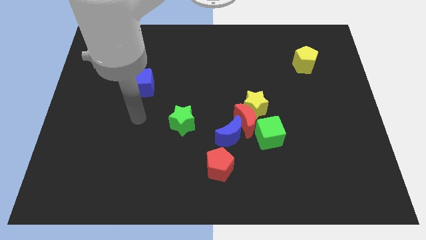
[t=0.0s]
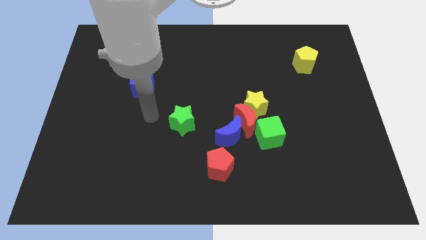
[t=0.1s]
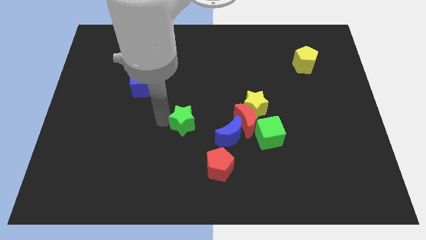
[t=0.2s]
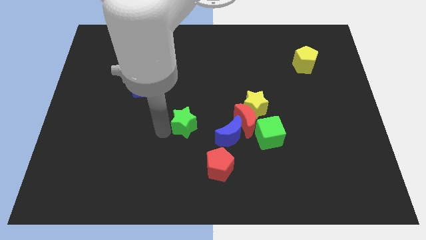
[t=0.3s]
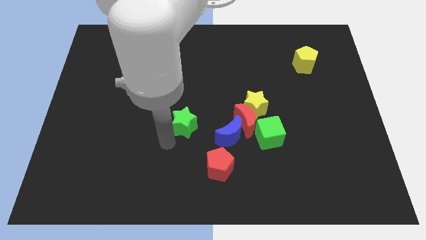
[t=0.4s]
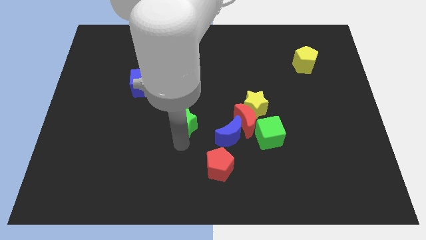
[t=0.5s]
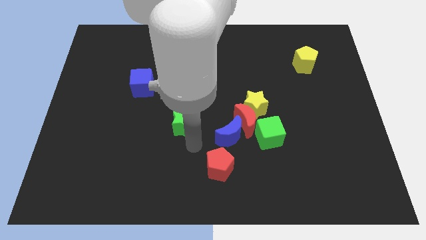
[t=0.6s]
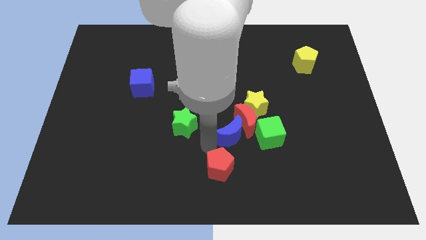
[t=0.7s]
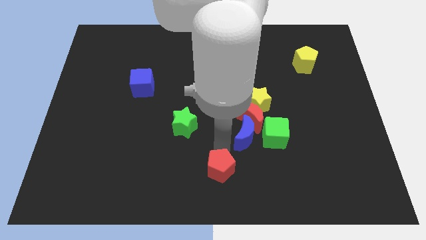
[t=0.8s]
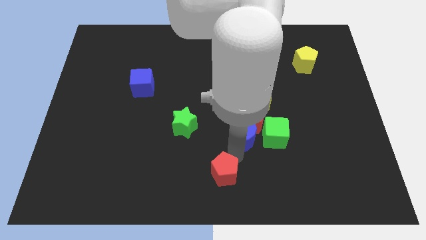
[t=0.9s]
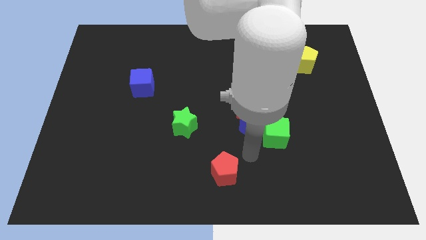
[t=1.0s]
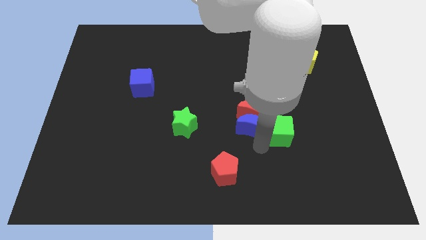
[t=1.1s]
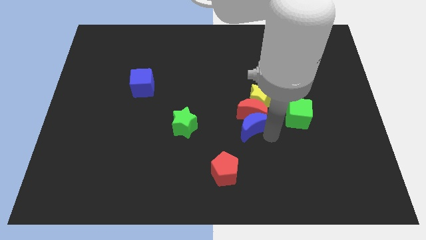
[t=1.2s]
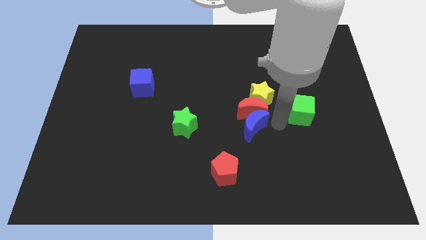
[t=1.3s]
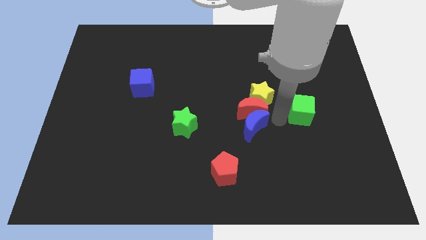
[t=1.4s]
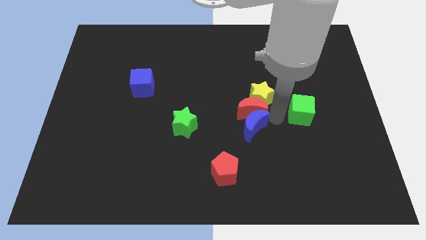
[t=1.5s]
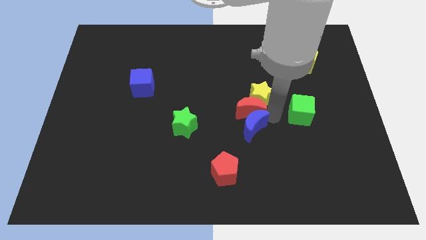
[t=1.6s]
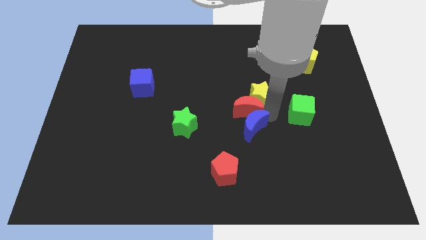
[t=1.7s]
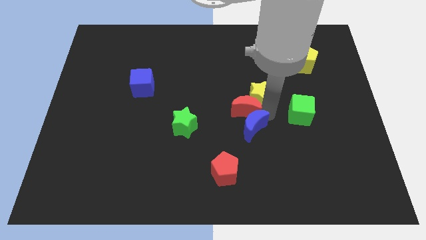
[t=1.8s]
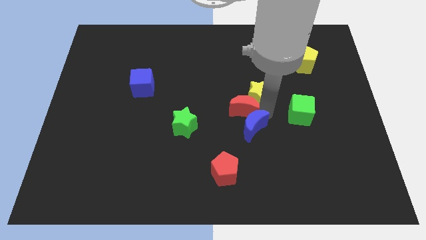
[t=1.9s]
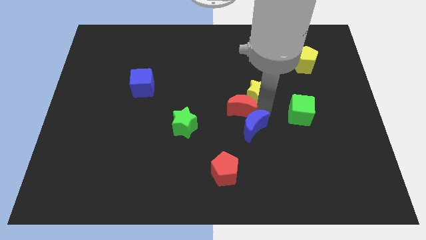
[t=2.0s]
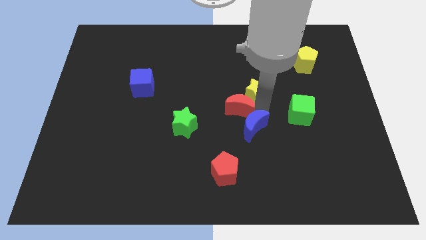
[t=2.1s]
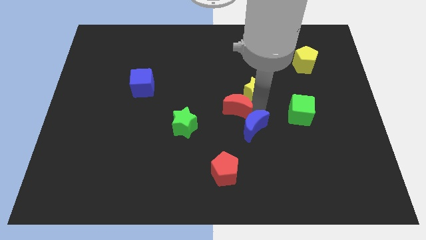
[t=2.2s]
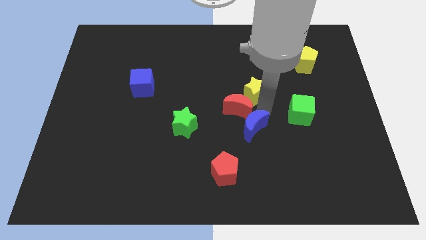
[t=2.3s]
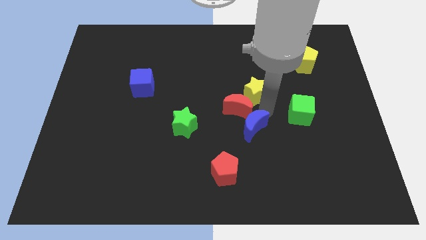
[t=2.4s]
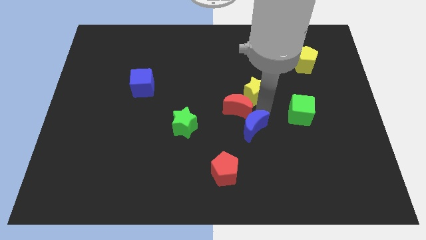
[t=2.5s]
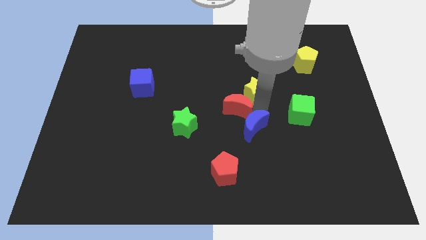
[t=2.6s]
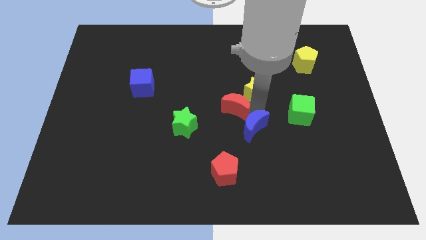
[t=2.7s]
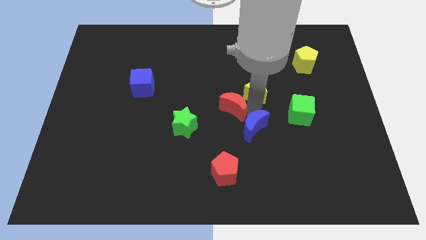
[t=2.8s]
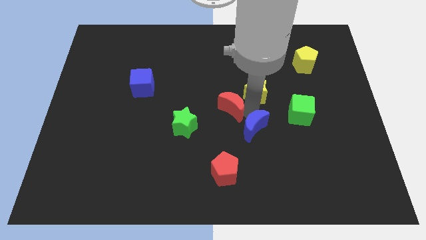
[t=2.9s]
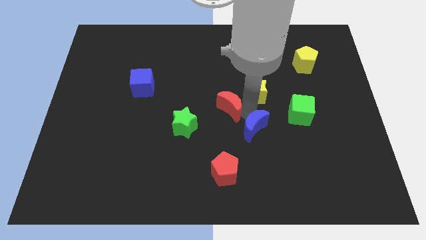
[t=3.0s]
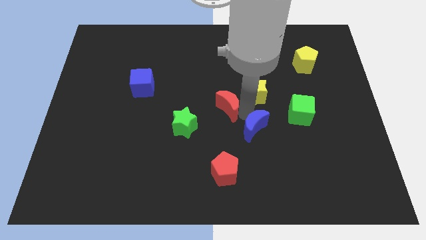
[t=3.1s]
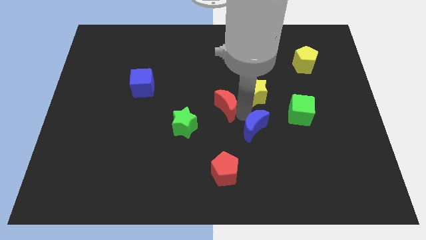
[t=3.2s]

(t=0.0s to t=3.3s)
separate the red moon from the group

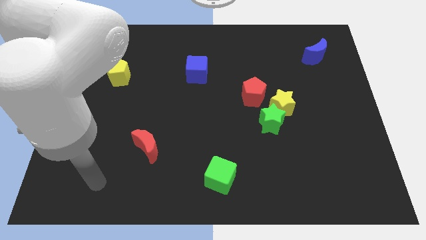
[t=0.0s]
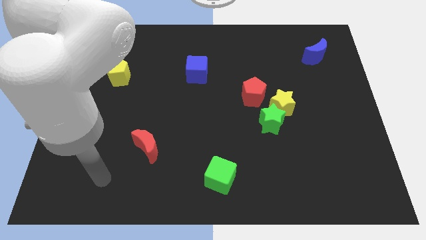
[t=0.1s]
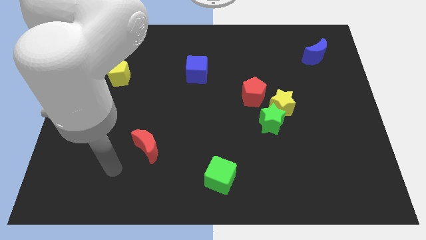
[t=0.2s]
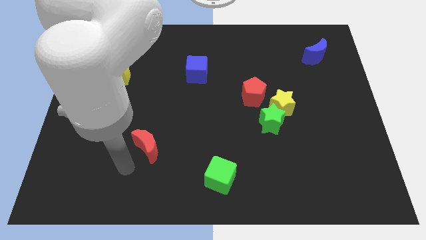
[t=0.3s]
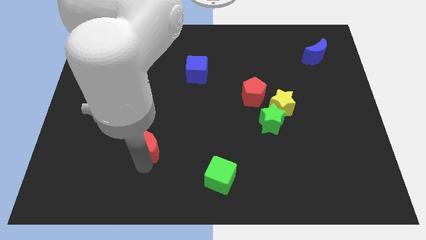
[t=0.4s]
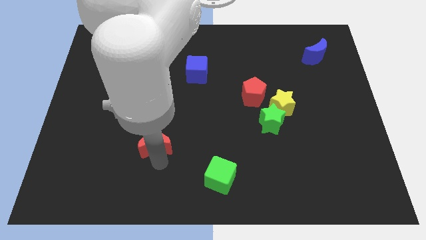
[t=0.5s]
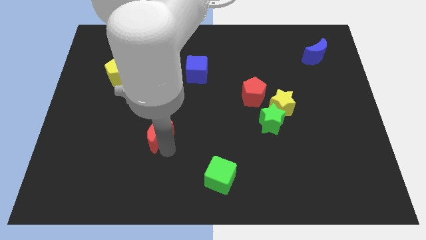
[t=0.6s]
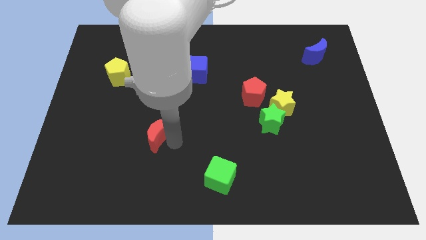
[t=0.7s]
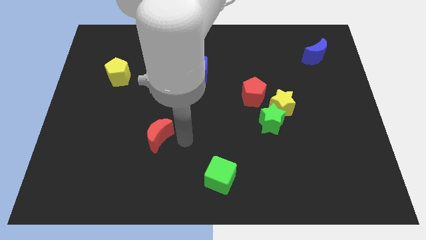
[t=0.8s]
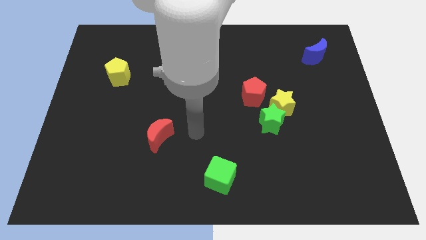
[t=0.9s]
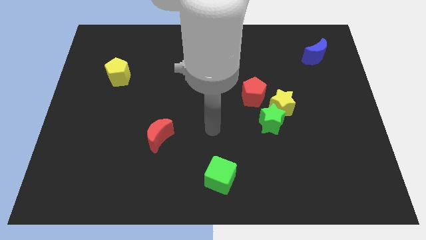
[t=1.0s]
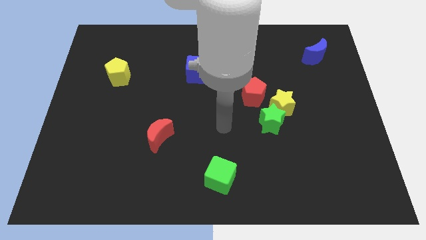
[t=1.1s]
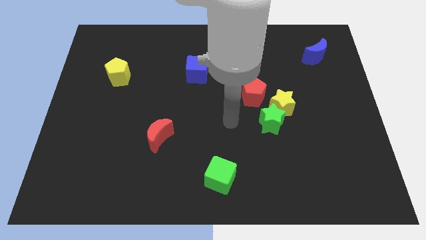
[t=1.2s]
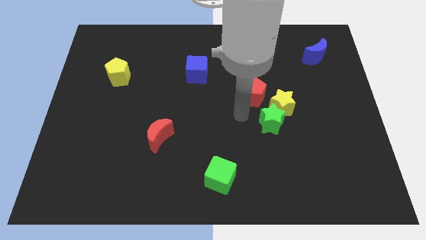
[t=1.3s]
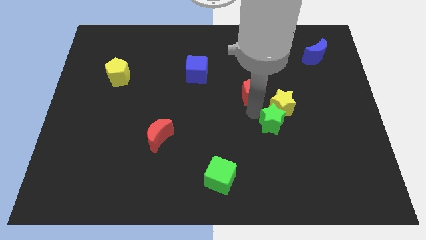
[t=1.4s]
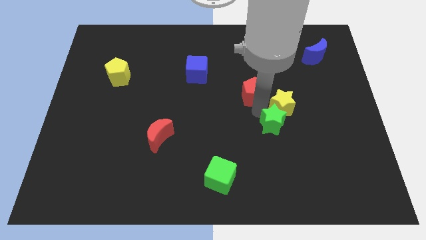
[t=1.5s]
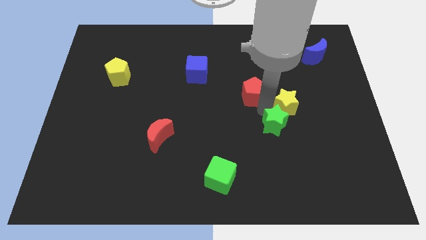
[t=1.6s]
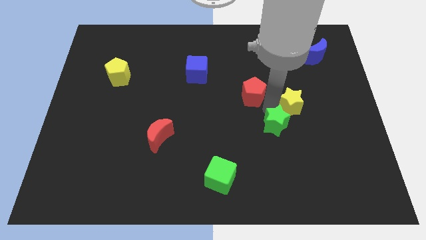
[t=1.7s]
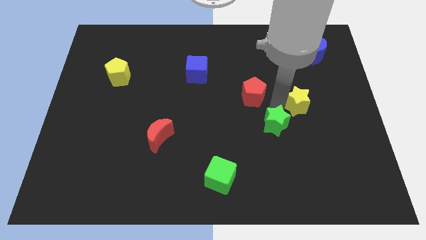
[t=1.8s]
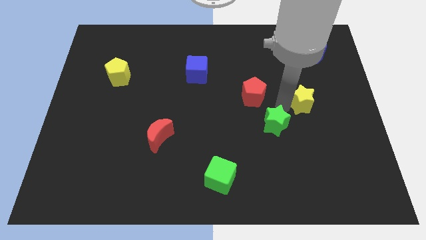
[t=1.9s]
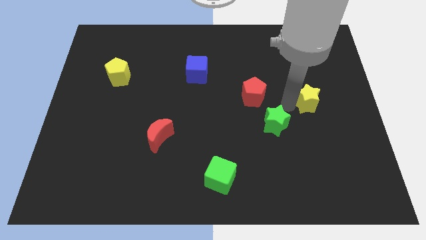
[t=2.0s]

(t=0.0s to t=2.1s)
move the yellow star away from the green star and red pentagon

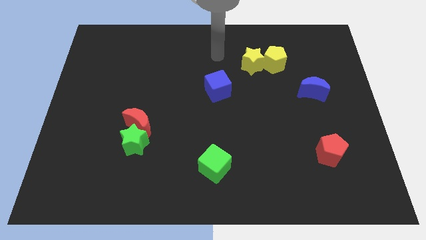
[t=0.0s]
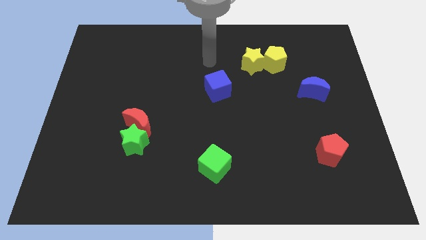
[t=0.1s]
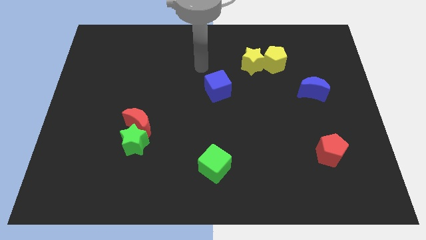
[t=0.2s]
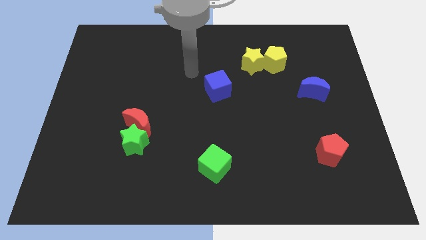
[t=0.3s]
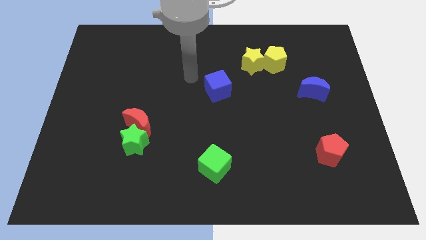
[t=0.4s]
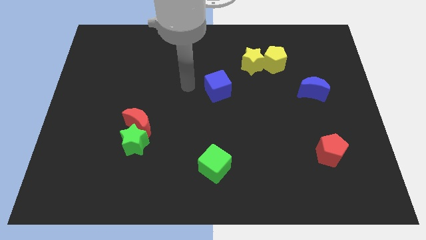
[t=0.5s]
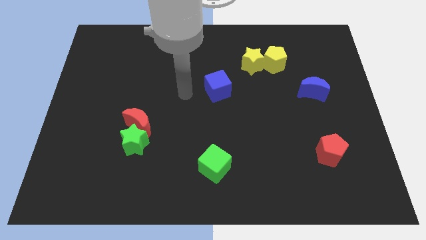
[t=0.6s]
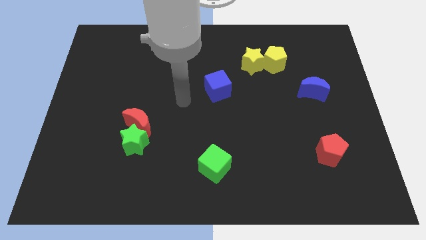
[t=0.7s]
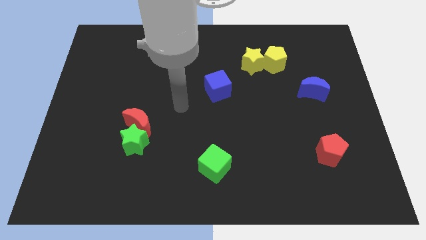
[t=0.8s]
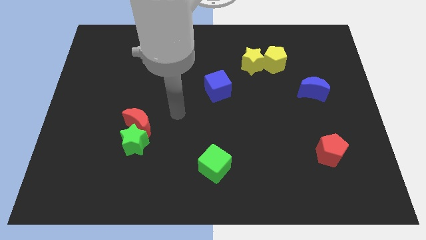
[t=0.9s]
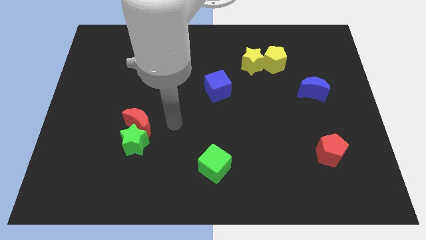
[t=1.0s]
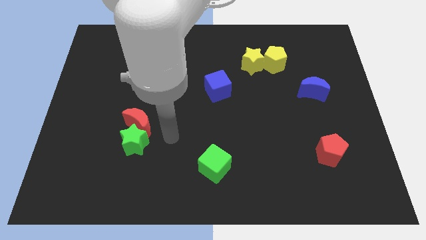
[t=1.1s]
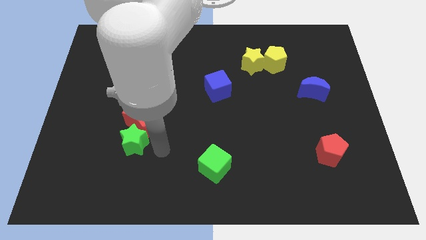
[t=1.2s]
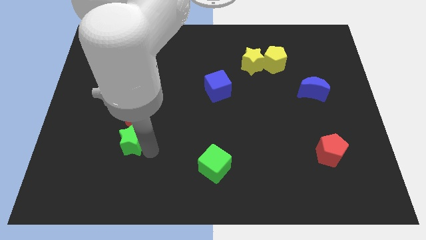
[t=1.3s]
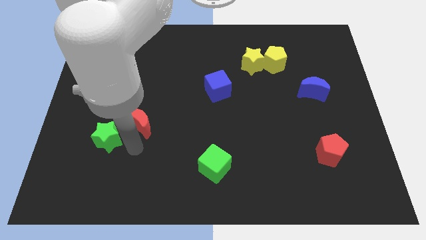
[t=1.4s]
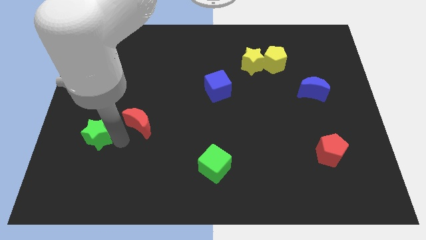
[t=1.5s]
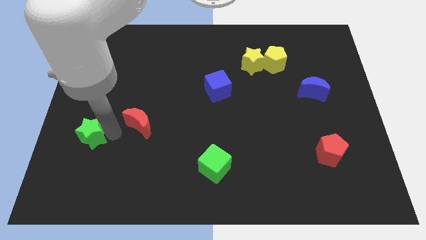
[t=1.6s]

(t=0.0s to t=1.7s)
pull the red moon apart from the green star

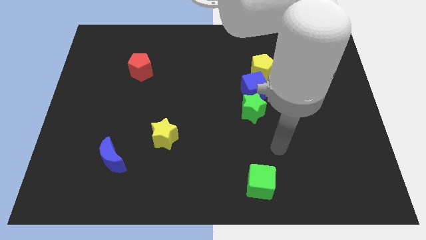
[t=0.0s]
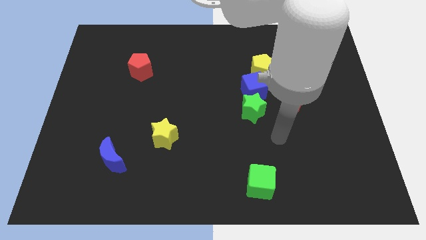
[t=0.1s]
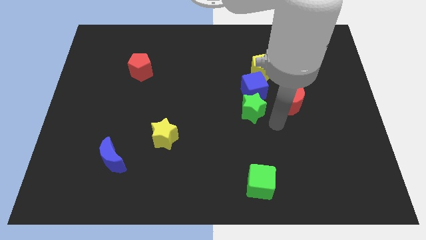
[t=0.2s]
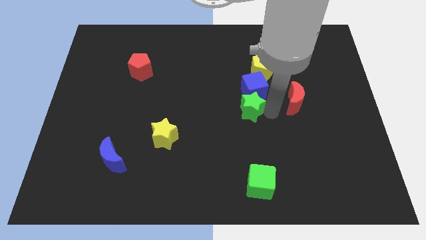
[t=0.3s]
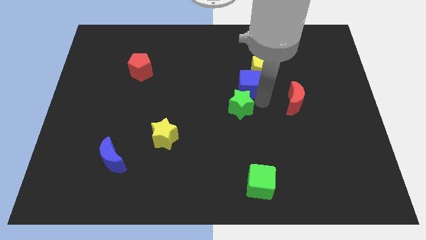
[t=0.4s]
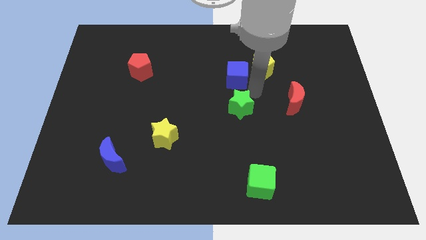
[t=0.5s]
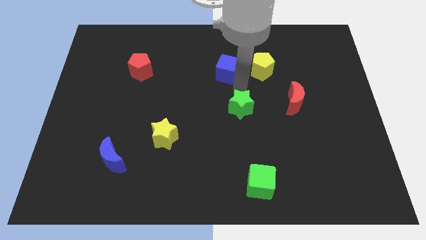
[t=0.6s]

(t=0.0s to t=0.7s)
separate the green star from the blue cube

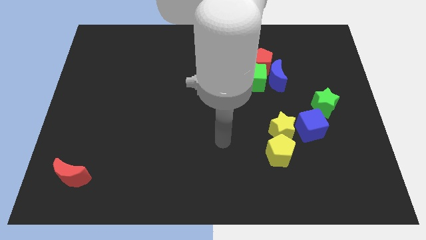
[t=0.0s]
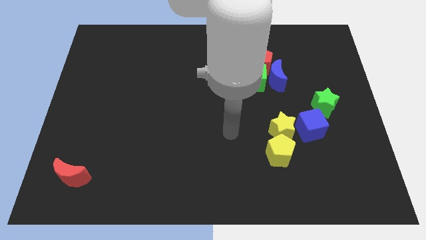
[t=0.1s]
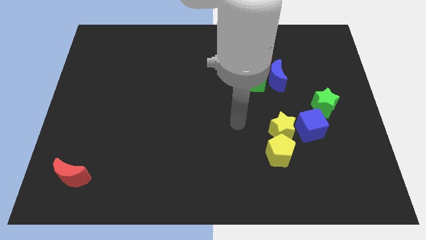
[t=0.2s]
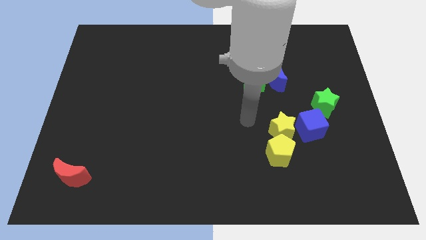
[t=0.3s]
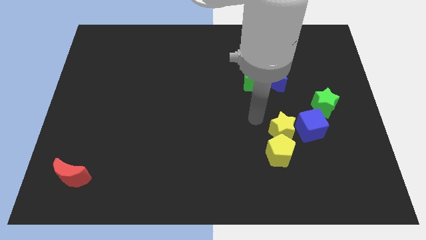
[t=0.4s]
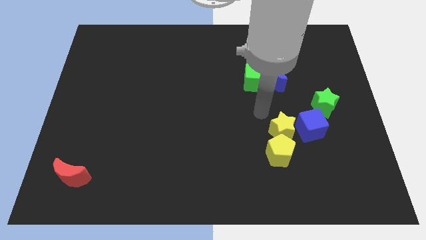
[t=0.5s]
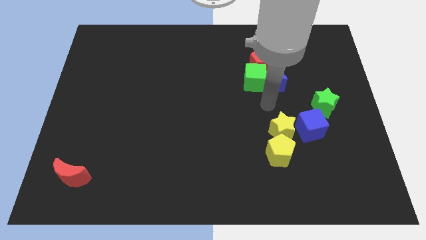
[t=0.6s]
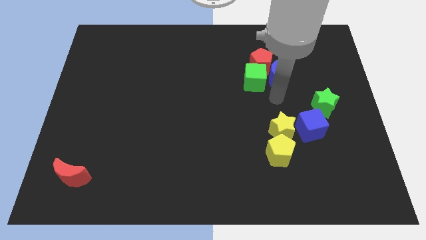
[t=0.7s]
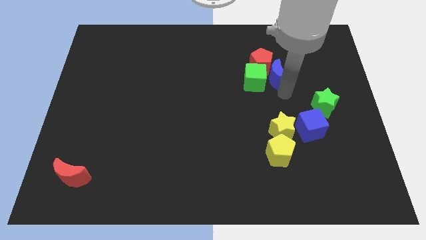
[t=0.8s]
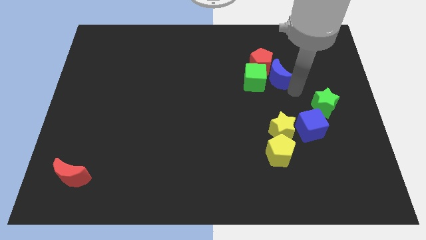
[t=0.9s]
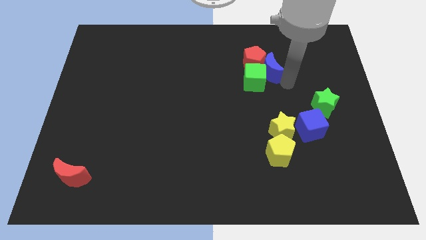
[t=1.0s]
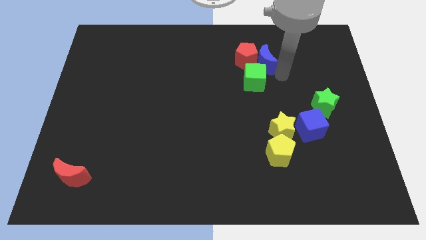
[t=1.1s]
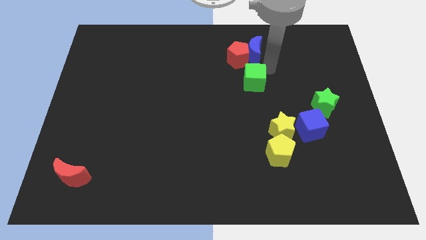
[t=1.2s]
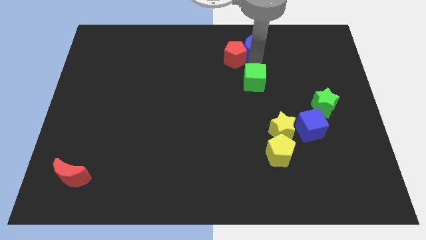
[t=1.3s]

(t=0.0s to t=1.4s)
move the green cube away from the blue moon and red pentagon

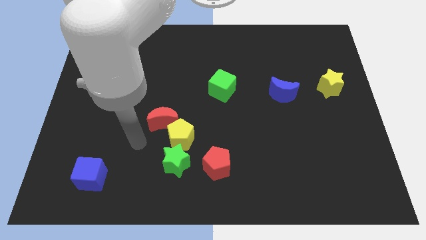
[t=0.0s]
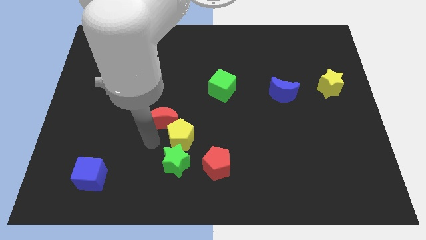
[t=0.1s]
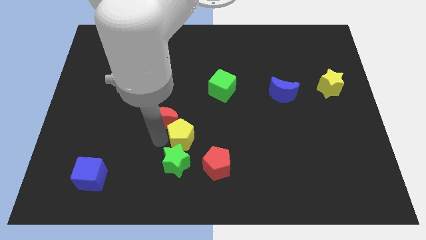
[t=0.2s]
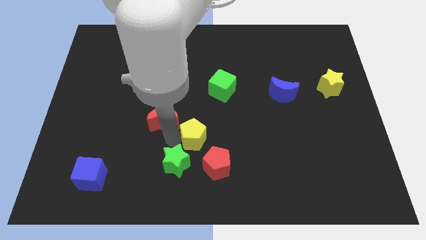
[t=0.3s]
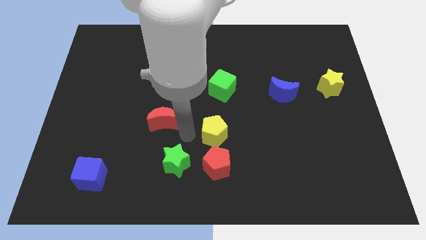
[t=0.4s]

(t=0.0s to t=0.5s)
move the red moon away from the yellow pentagon
